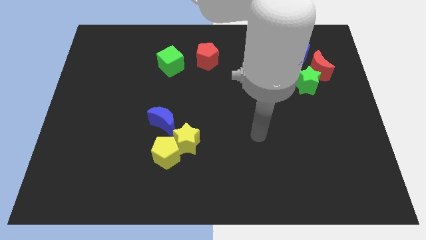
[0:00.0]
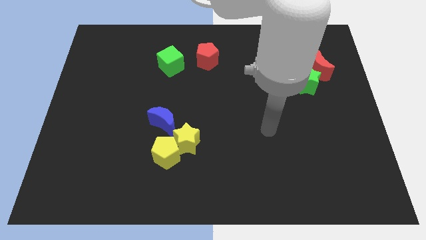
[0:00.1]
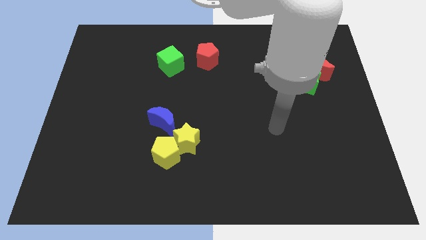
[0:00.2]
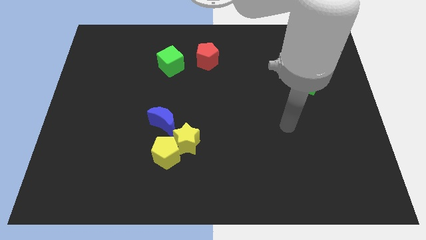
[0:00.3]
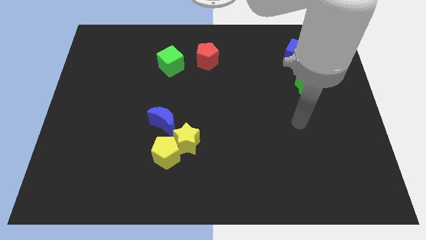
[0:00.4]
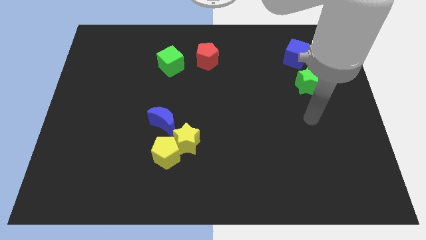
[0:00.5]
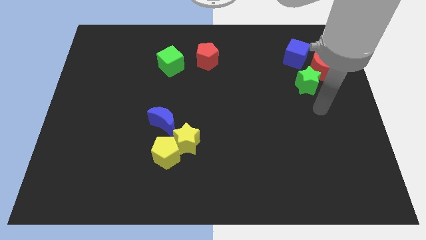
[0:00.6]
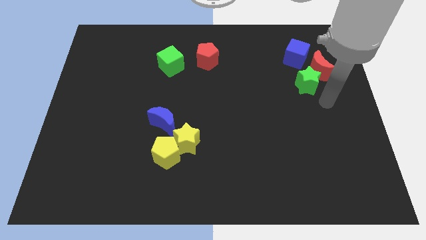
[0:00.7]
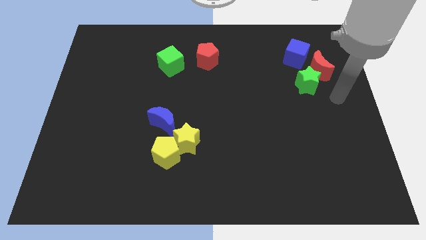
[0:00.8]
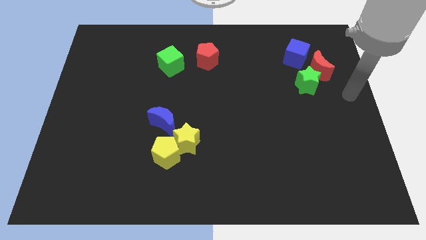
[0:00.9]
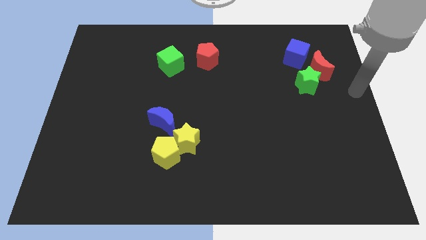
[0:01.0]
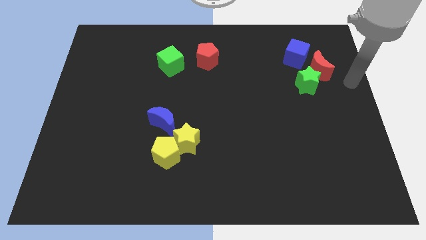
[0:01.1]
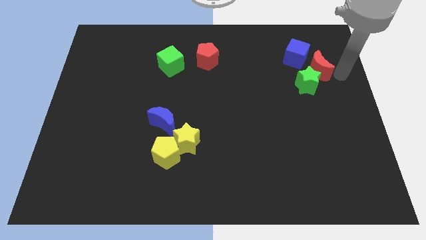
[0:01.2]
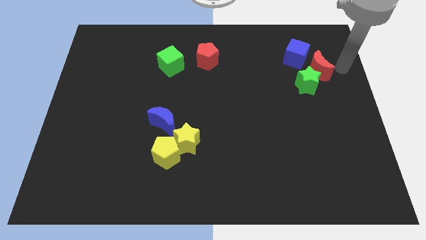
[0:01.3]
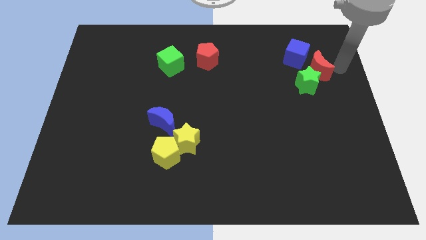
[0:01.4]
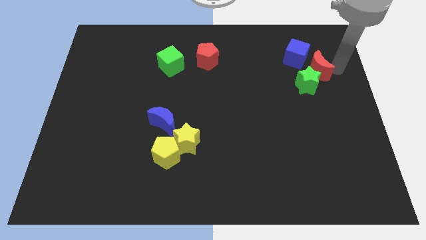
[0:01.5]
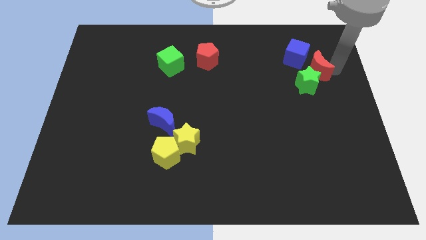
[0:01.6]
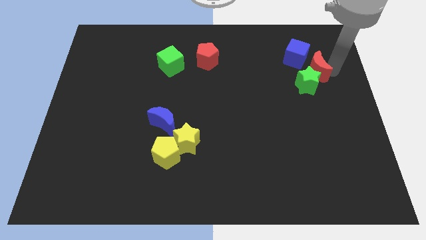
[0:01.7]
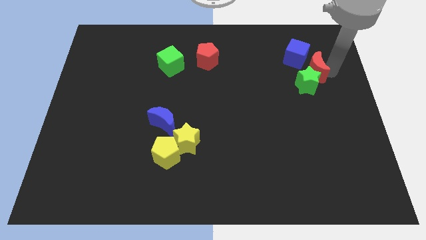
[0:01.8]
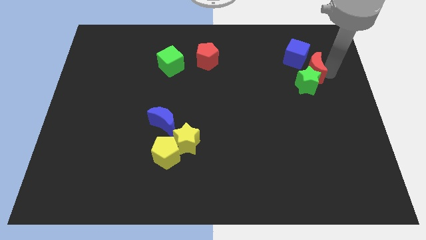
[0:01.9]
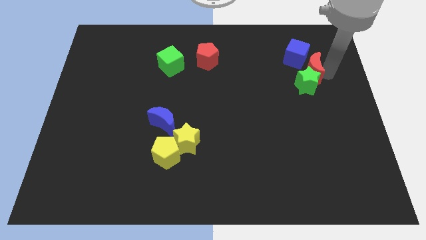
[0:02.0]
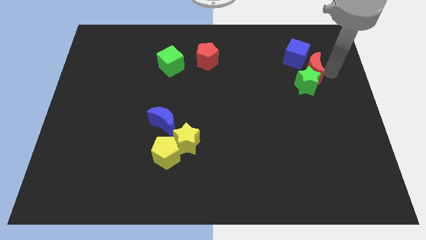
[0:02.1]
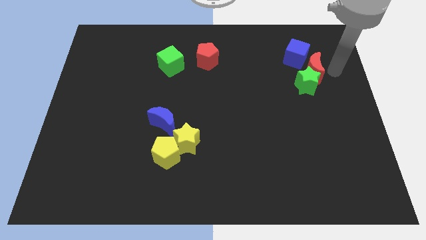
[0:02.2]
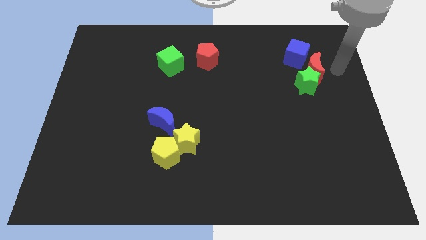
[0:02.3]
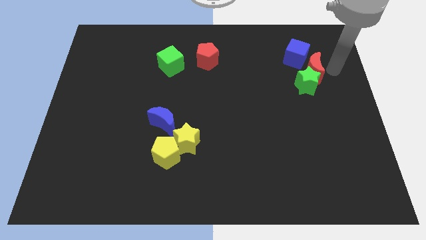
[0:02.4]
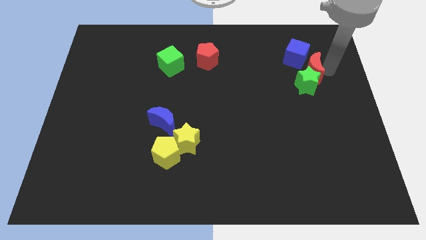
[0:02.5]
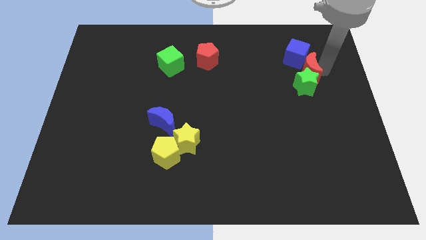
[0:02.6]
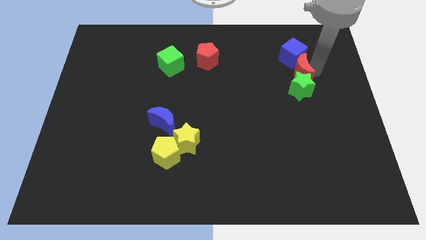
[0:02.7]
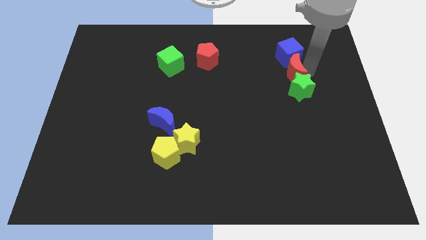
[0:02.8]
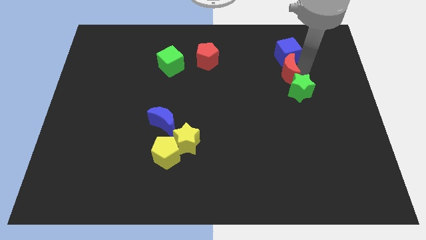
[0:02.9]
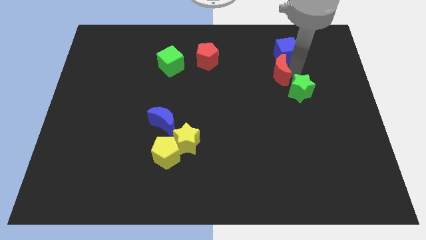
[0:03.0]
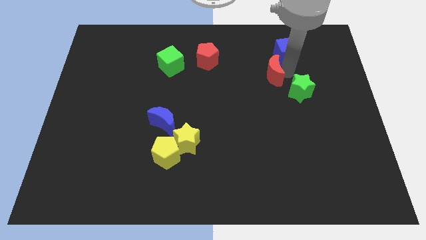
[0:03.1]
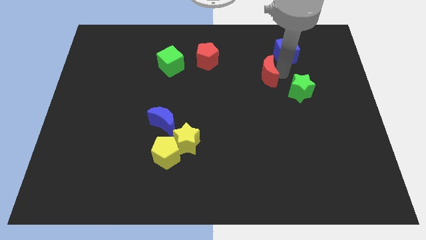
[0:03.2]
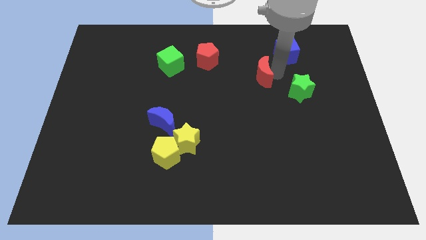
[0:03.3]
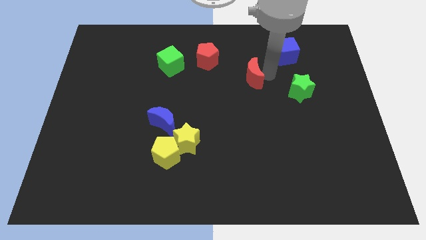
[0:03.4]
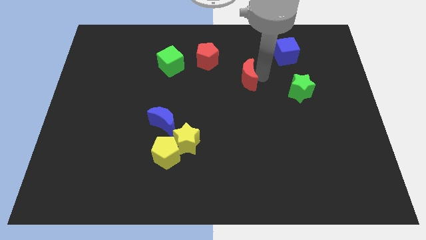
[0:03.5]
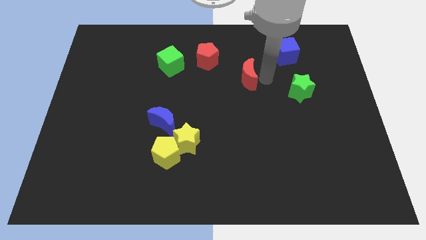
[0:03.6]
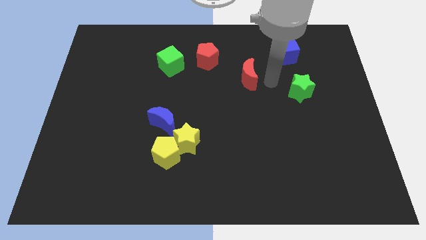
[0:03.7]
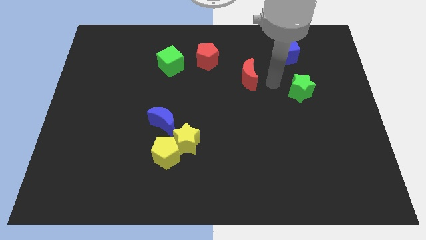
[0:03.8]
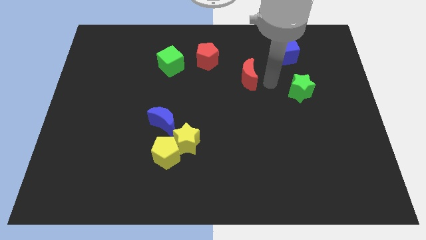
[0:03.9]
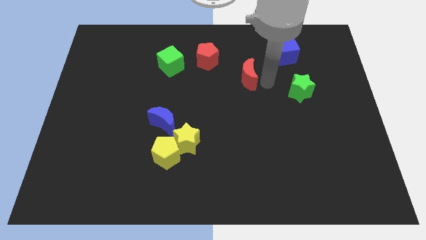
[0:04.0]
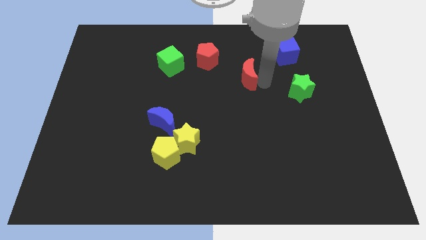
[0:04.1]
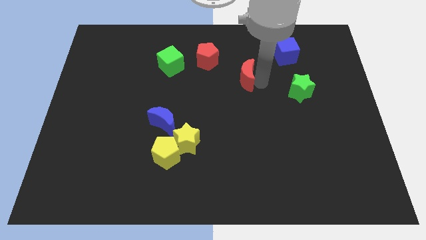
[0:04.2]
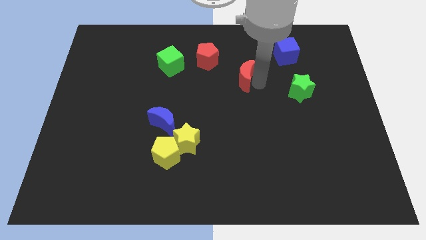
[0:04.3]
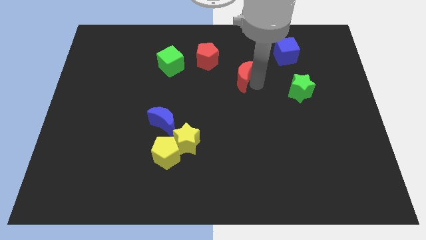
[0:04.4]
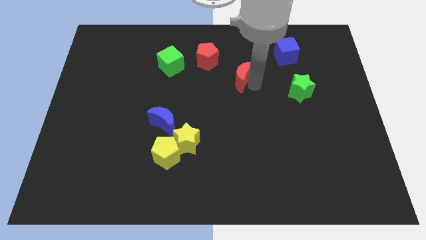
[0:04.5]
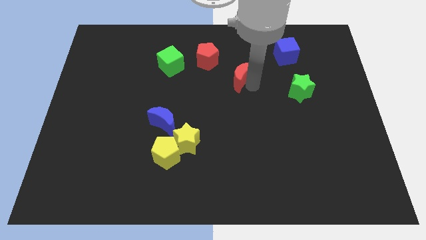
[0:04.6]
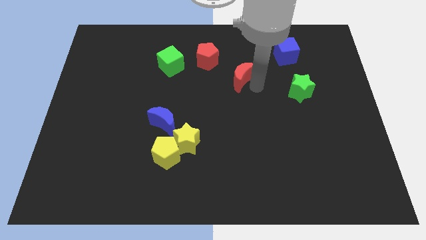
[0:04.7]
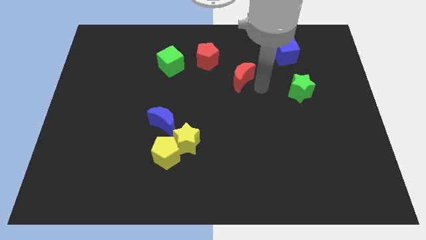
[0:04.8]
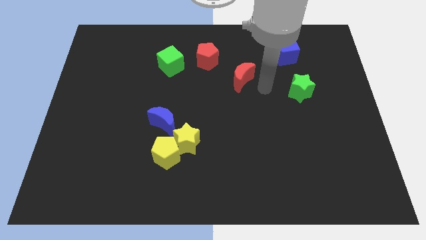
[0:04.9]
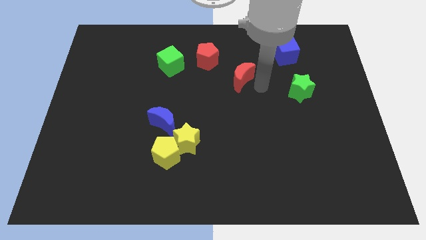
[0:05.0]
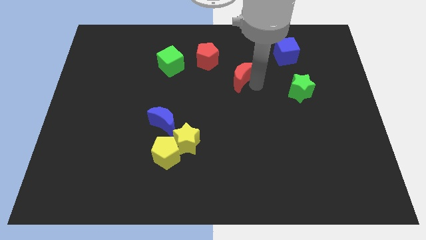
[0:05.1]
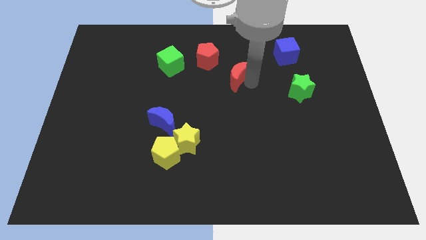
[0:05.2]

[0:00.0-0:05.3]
move the red moon to the left

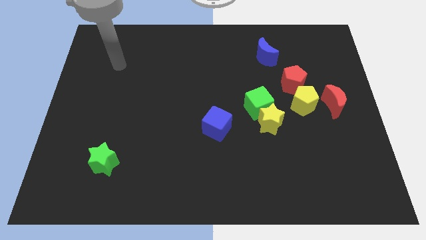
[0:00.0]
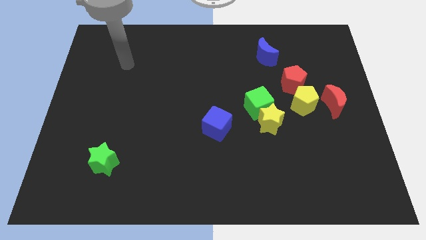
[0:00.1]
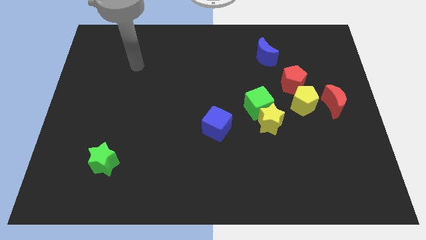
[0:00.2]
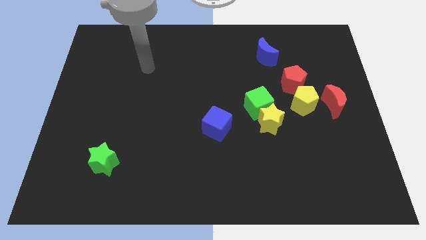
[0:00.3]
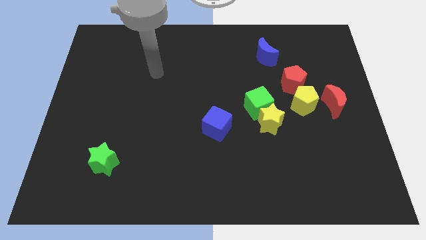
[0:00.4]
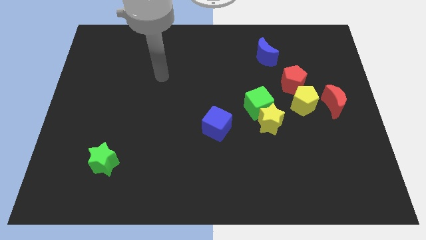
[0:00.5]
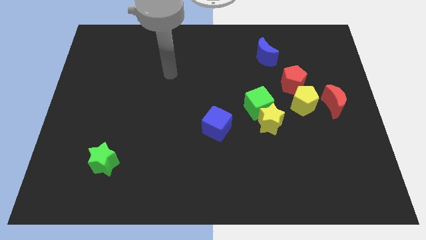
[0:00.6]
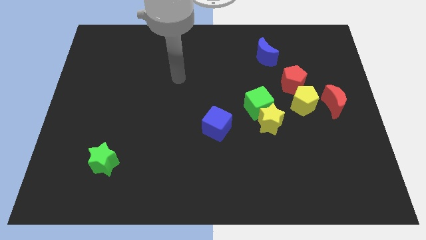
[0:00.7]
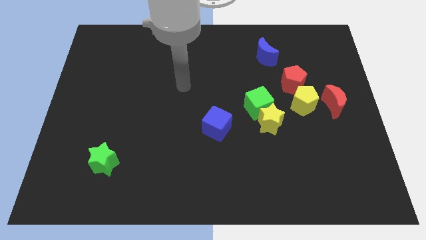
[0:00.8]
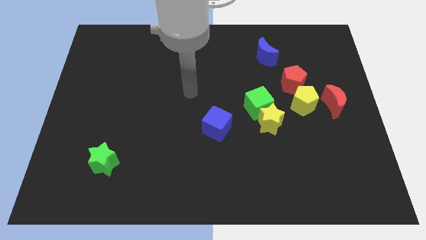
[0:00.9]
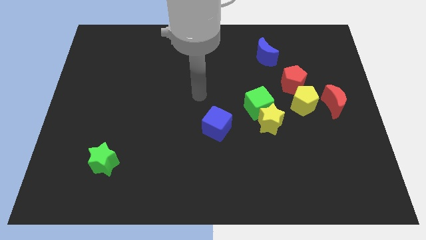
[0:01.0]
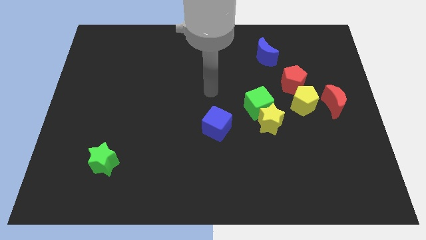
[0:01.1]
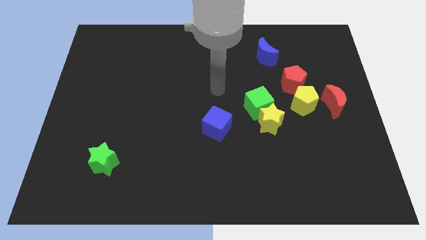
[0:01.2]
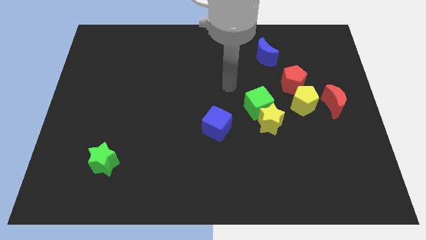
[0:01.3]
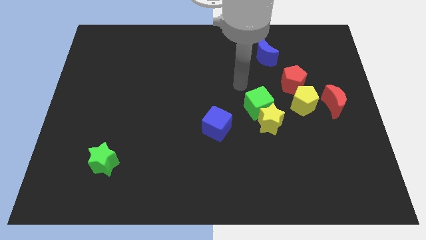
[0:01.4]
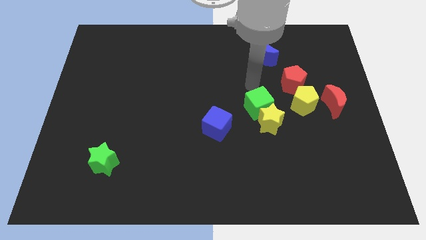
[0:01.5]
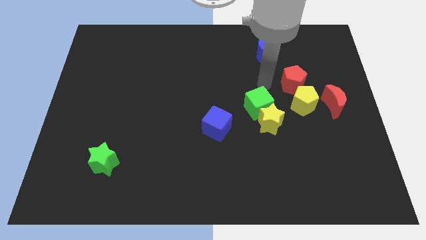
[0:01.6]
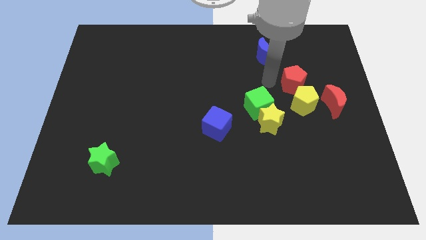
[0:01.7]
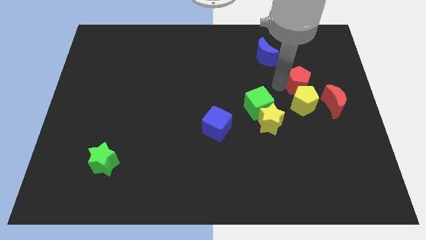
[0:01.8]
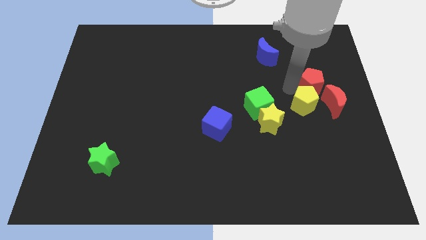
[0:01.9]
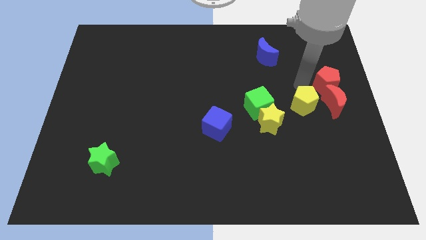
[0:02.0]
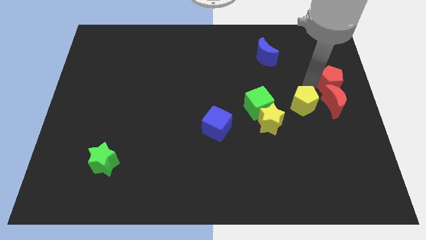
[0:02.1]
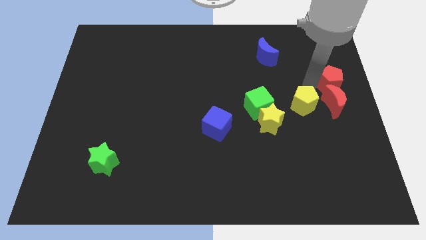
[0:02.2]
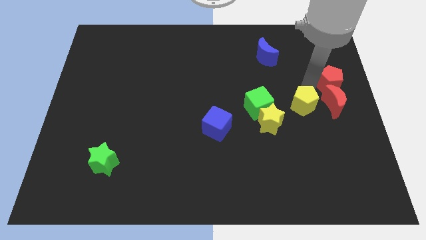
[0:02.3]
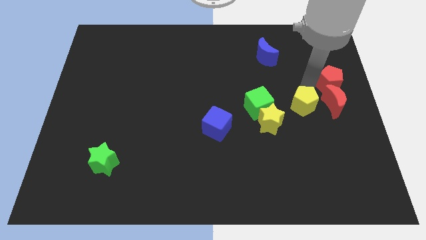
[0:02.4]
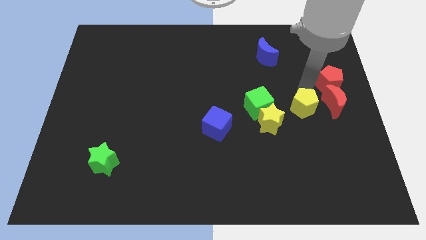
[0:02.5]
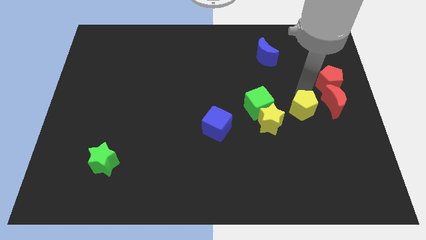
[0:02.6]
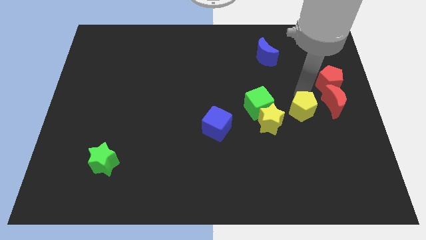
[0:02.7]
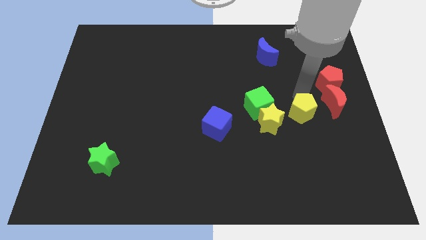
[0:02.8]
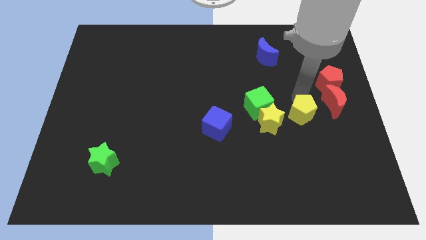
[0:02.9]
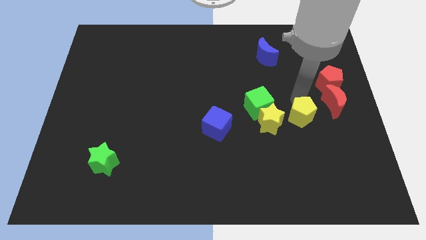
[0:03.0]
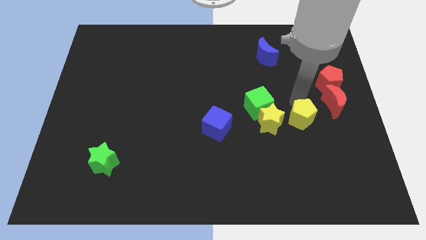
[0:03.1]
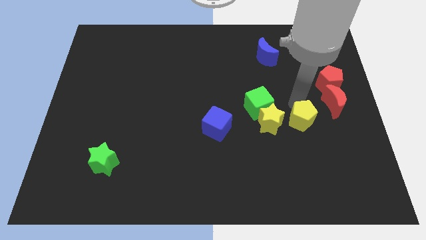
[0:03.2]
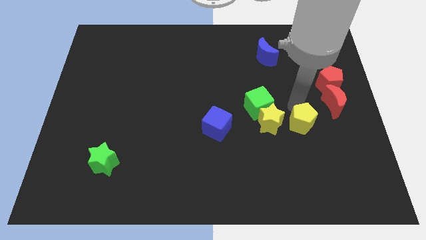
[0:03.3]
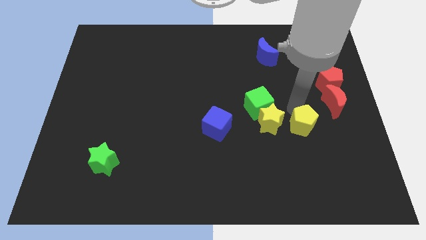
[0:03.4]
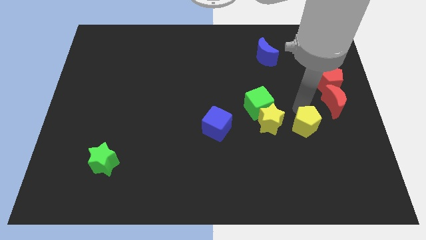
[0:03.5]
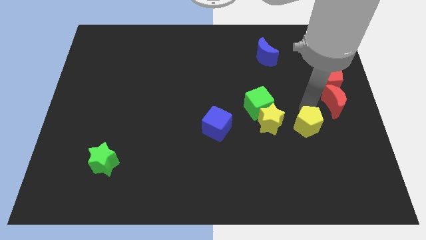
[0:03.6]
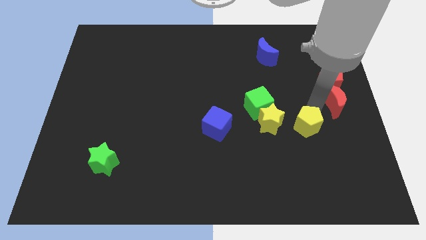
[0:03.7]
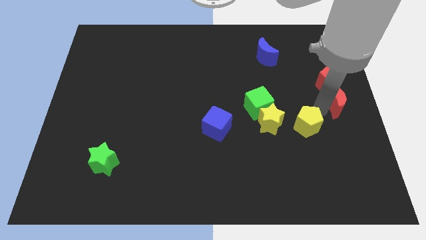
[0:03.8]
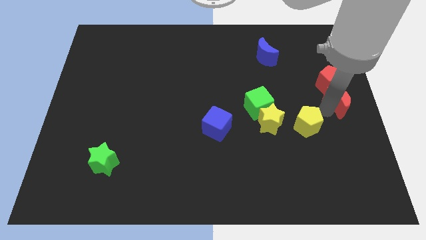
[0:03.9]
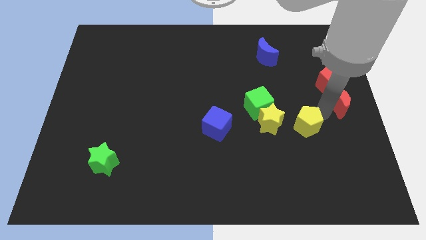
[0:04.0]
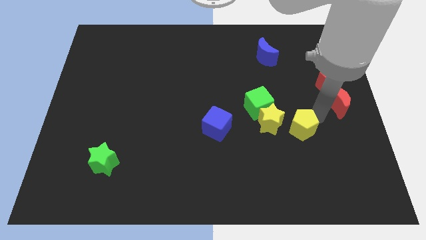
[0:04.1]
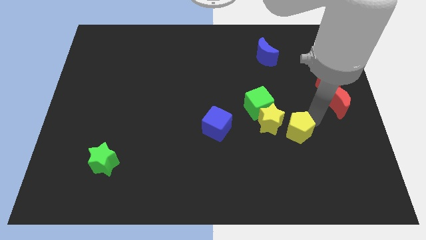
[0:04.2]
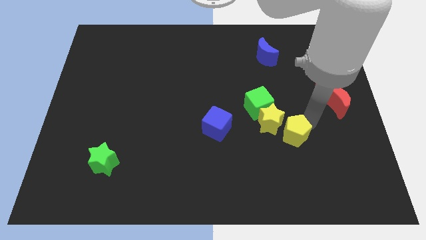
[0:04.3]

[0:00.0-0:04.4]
move the yellow pentagon a little down and to the left diagonally
